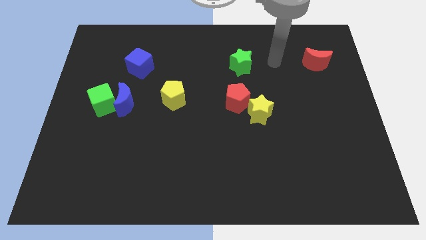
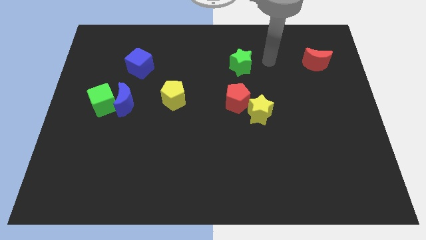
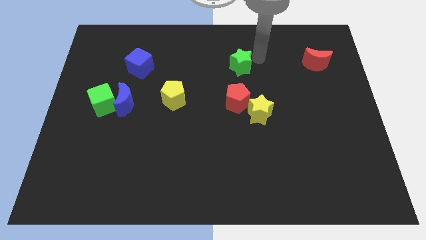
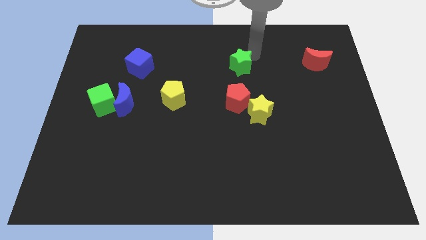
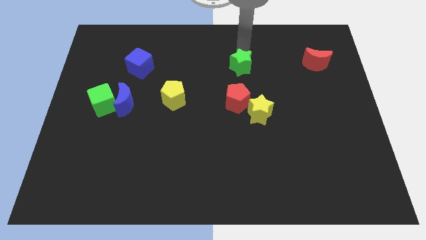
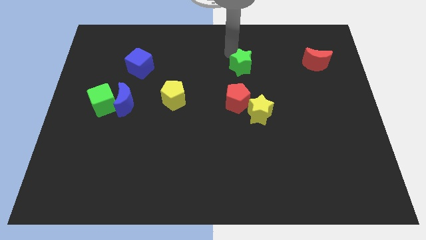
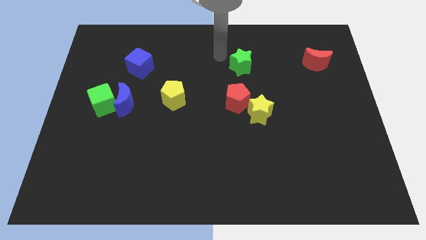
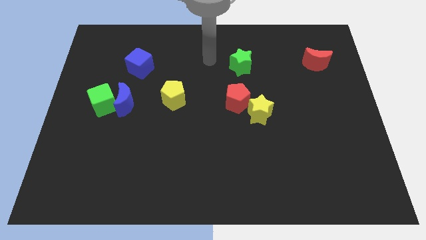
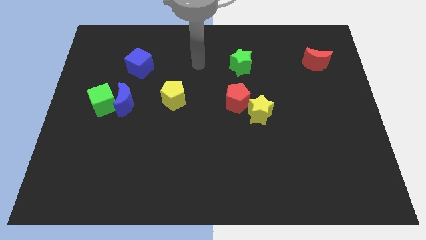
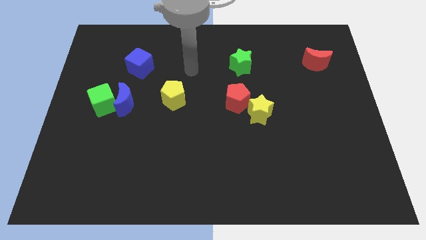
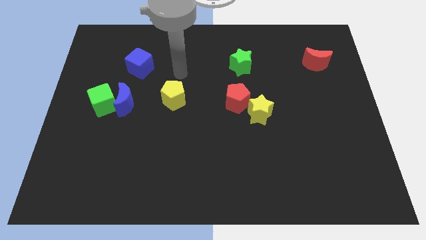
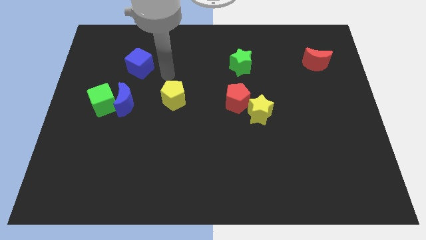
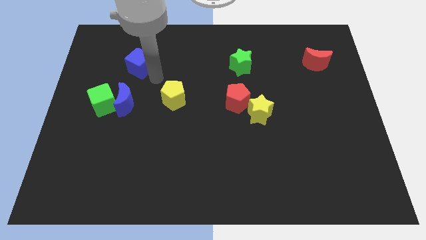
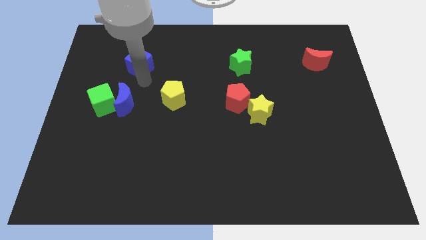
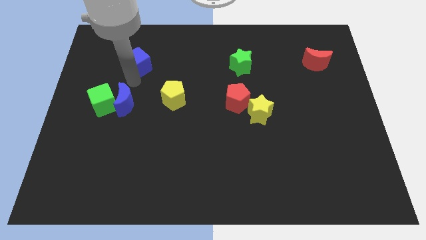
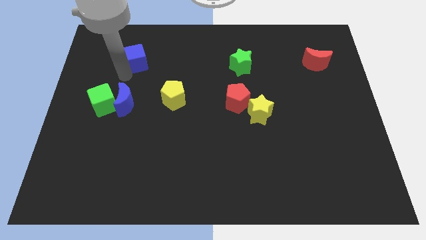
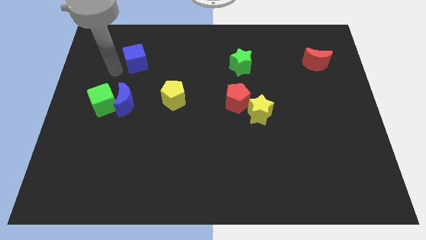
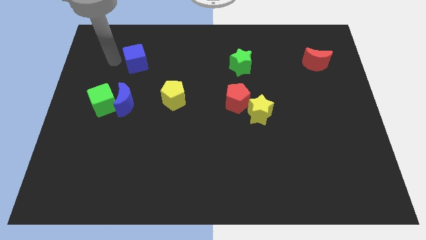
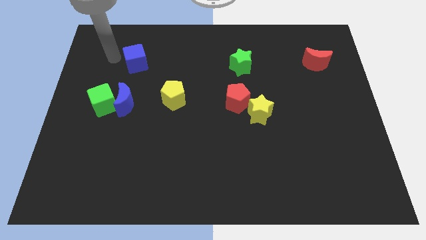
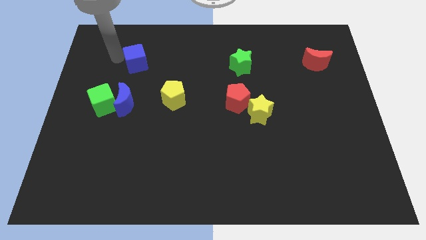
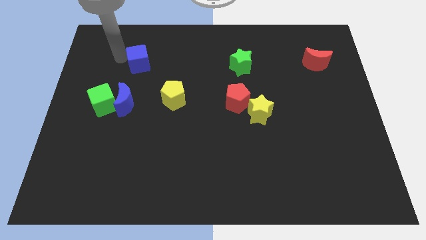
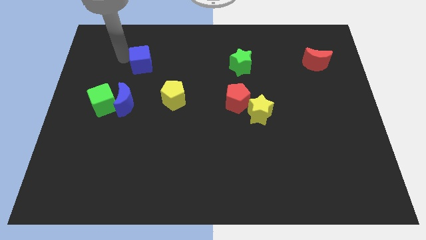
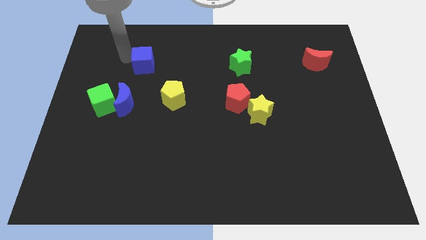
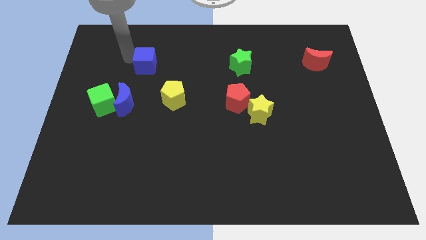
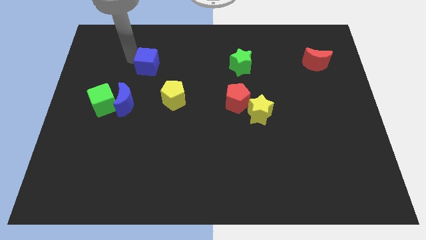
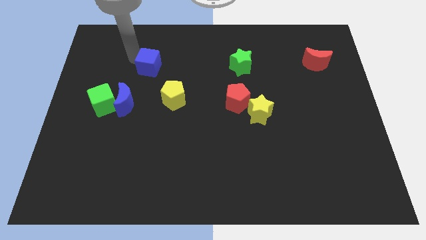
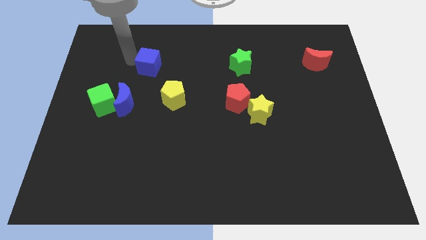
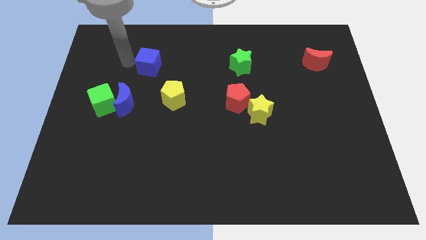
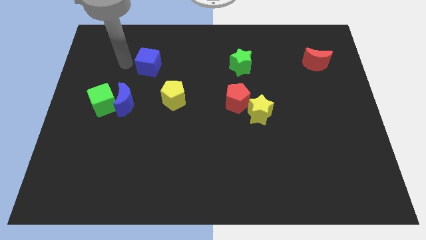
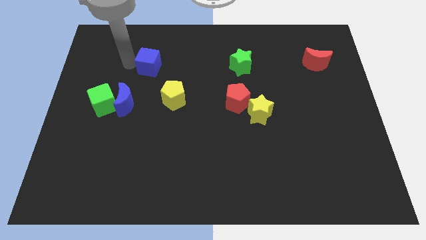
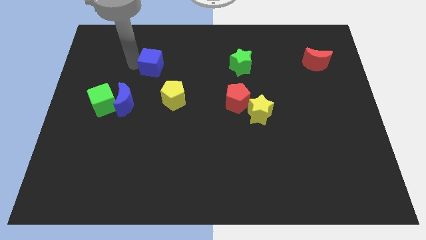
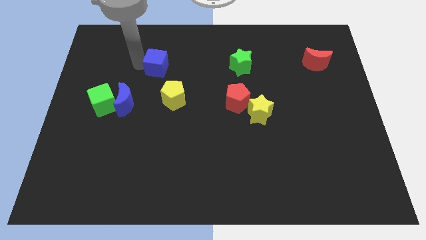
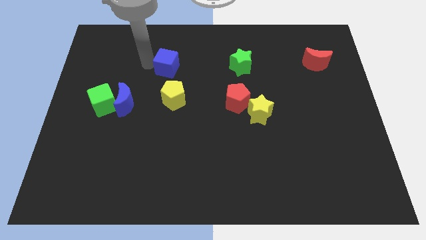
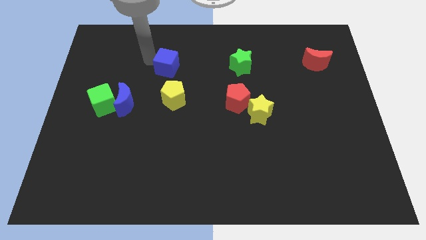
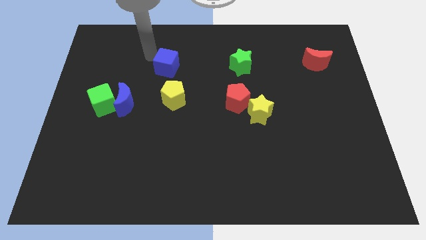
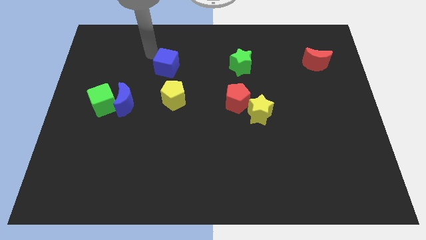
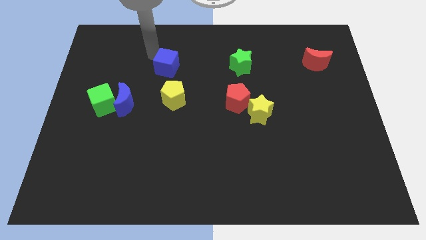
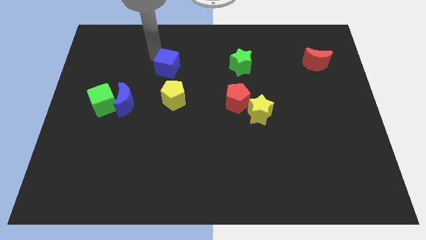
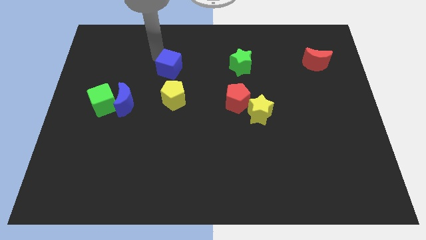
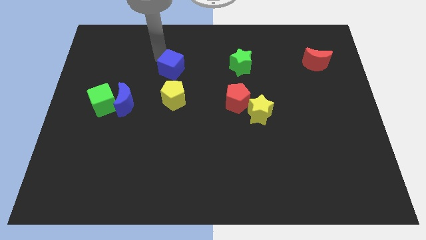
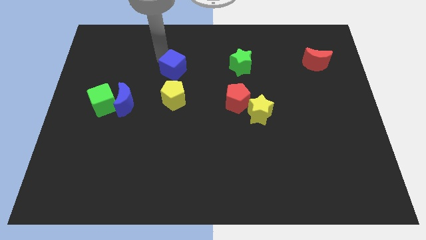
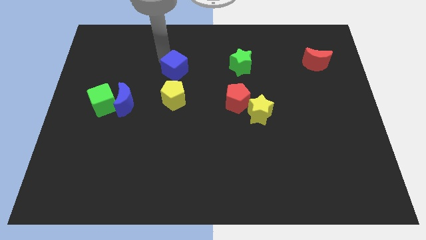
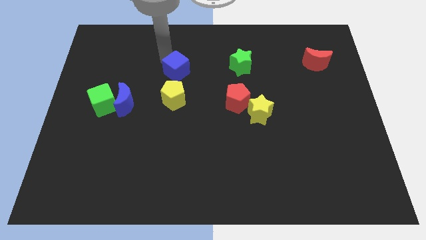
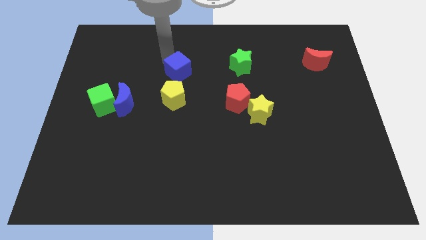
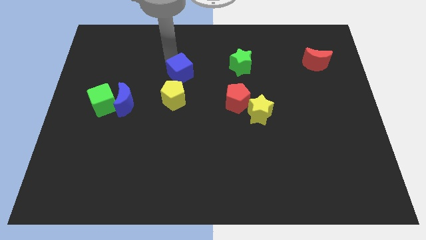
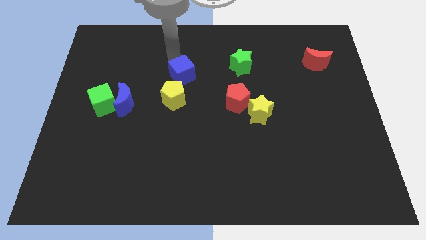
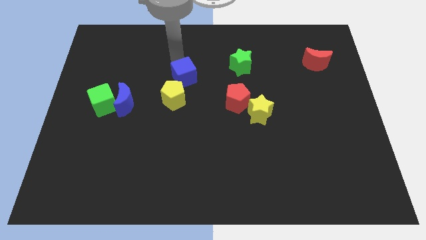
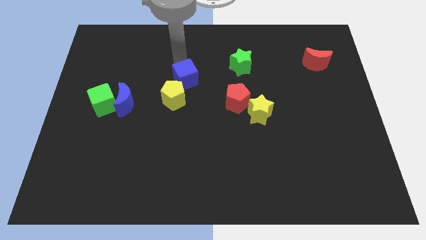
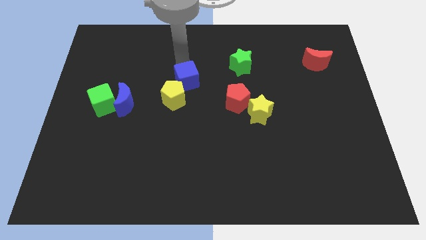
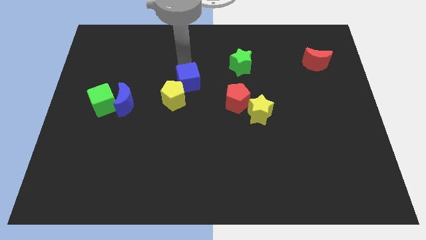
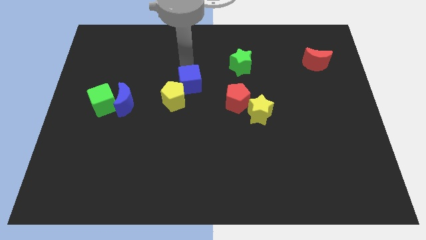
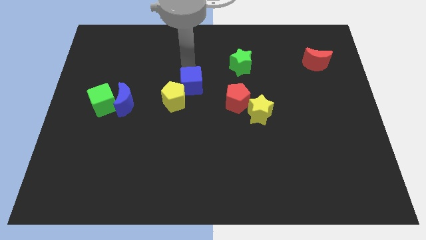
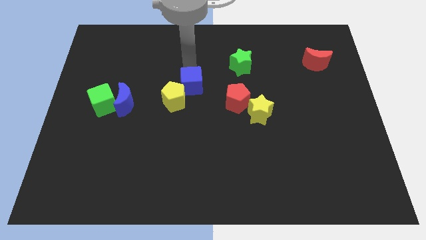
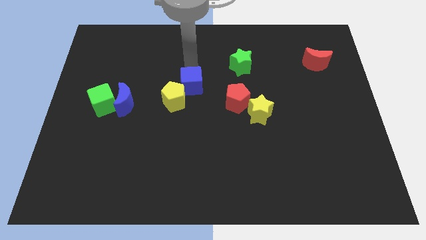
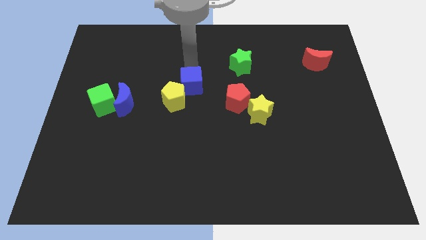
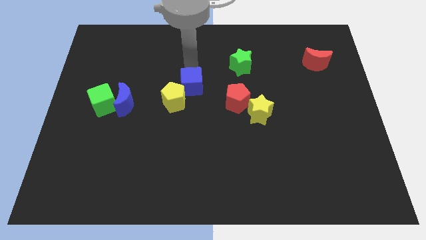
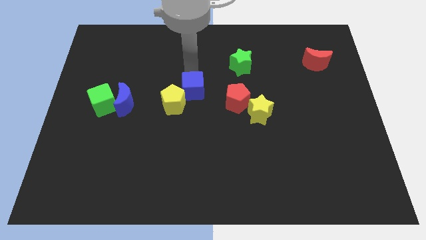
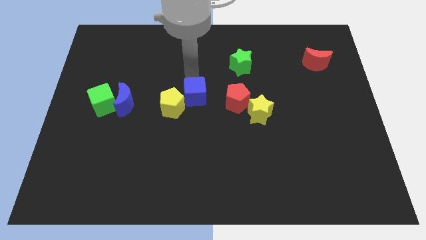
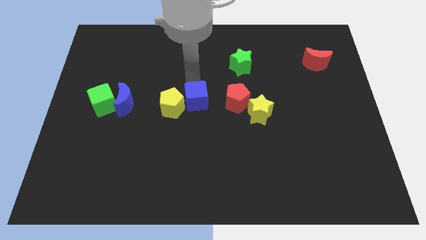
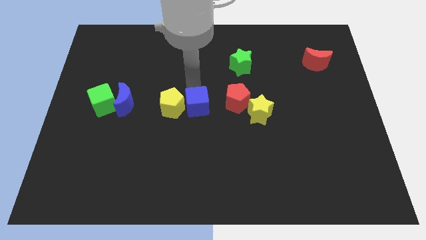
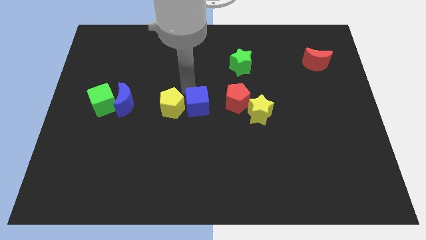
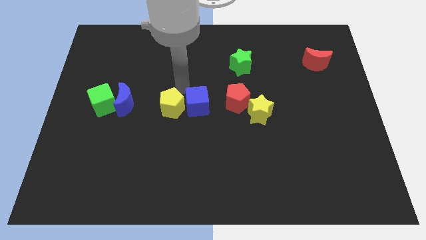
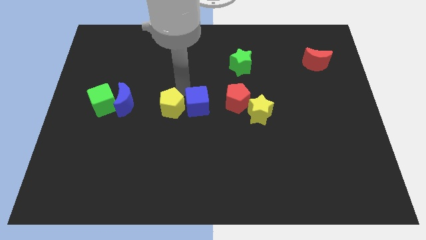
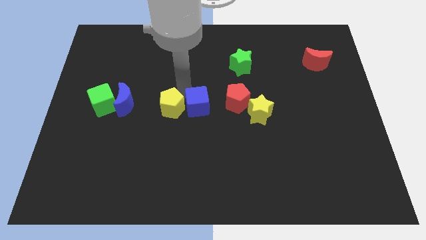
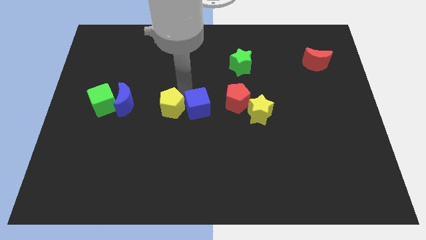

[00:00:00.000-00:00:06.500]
slide the blue cube down and right diagonally

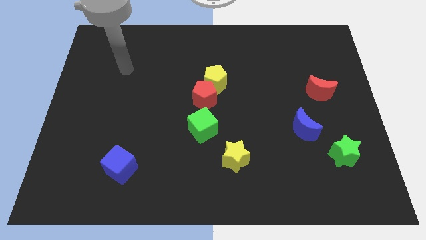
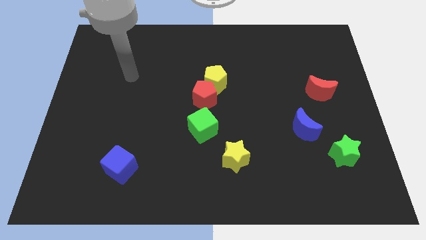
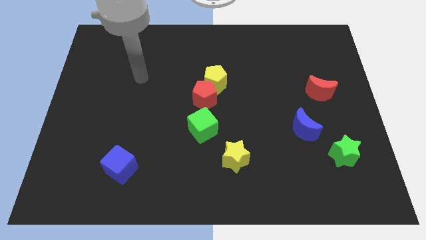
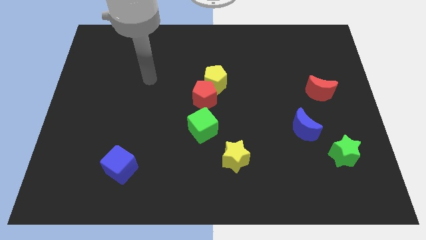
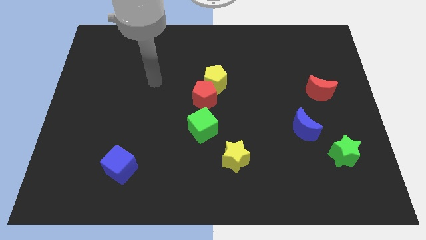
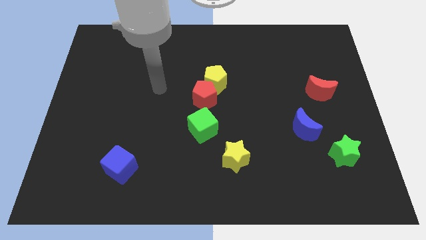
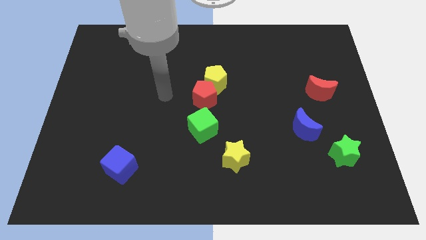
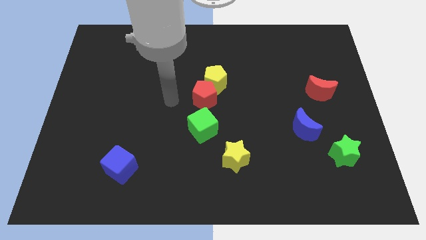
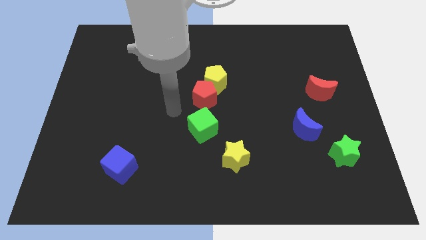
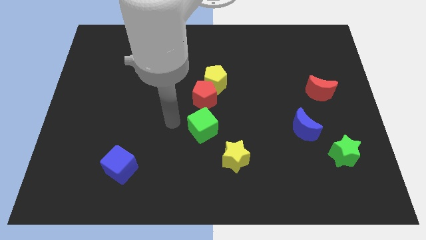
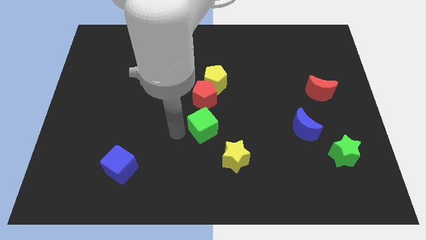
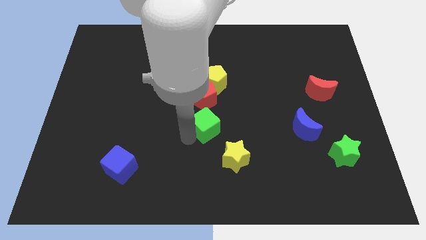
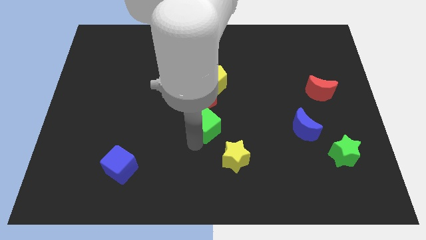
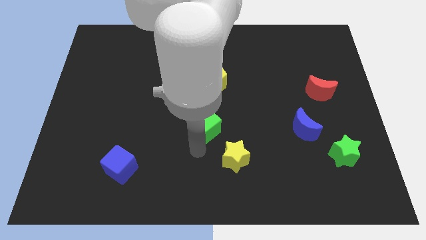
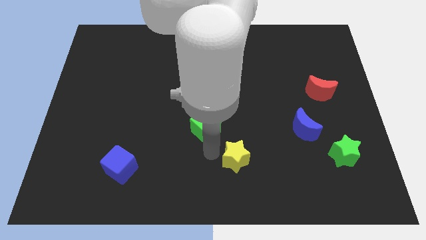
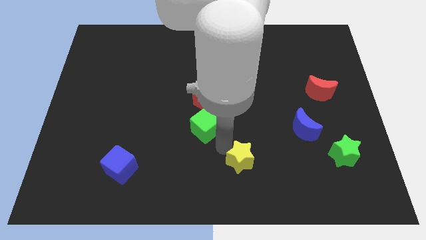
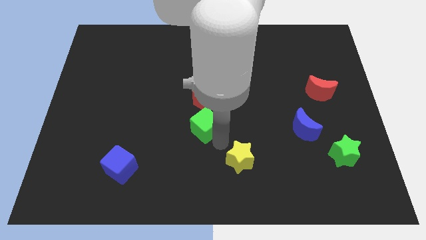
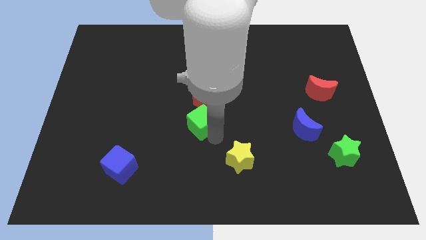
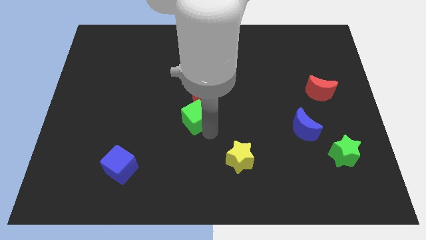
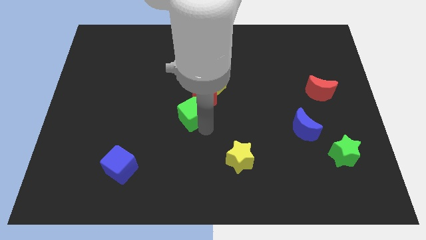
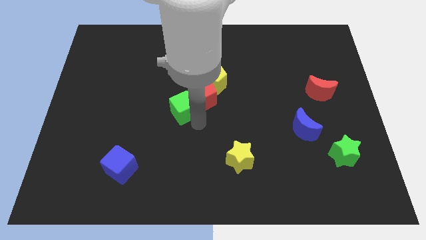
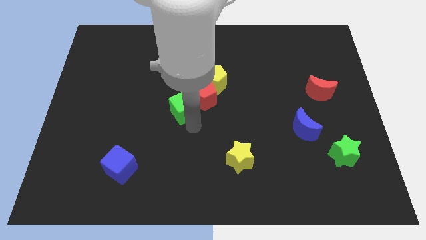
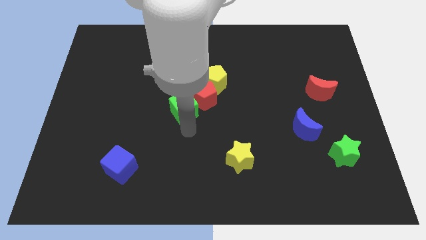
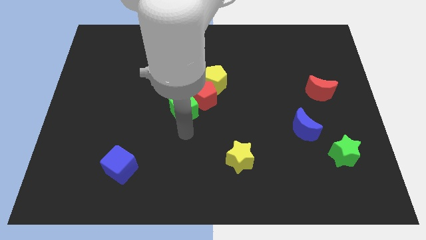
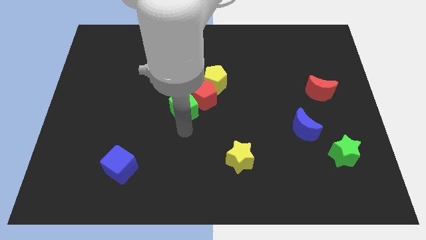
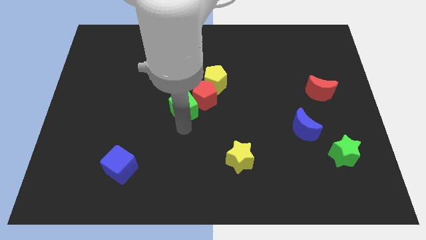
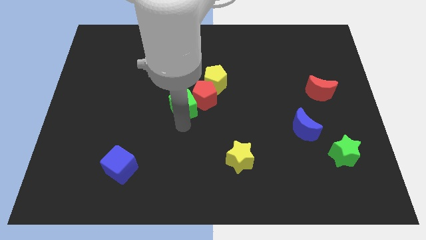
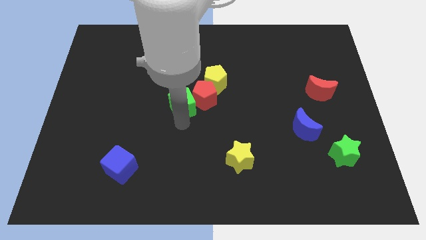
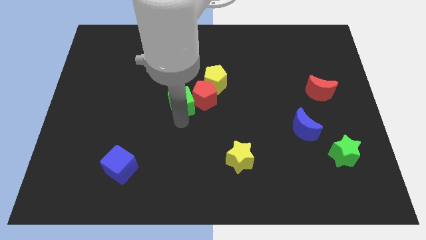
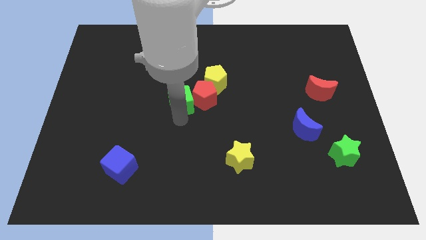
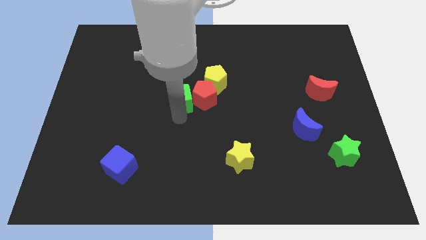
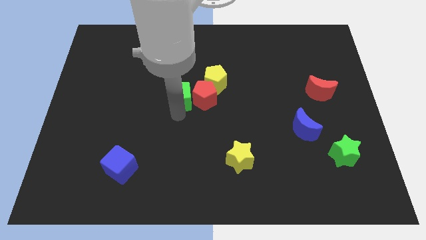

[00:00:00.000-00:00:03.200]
slide the green cube a little upwards
